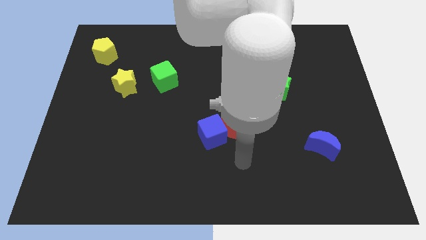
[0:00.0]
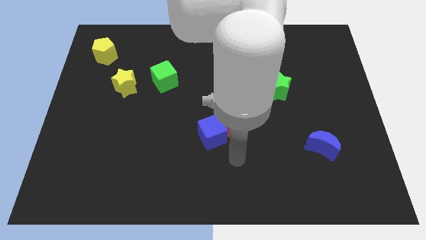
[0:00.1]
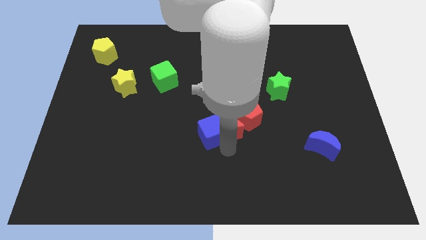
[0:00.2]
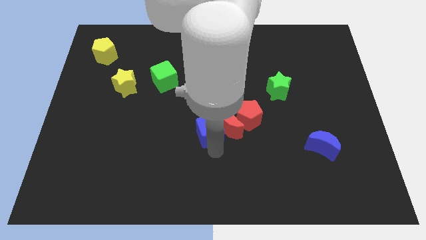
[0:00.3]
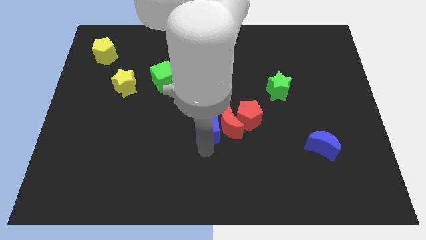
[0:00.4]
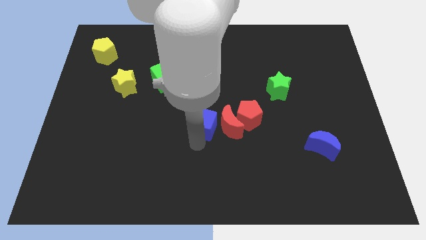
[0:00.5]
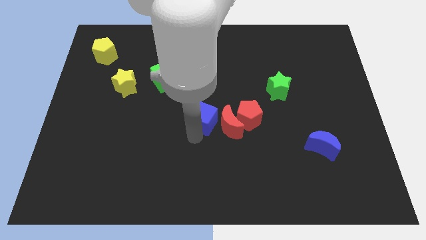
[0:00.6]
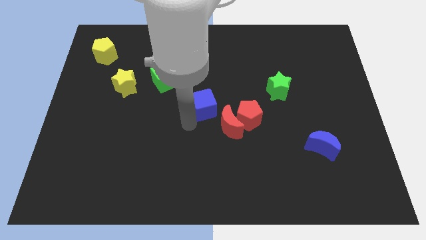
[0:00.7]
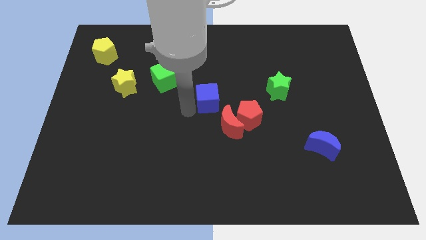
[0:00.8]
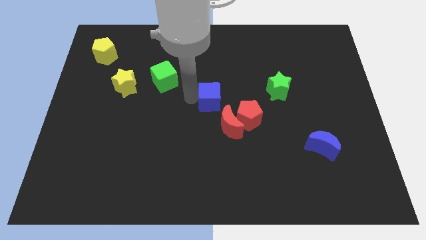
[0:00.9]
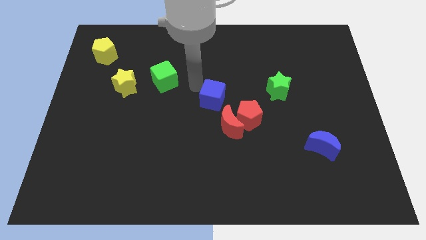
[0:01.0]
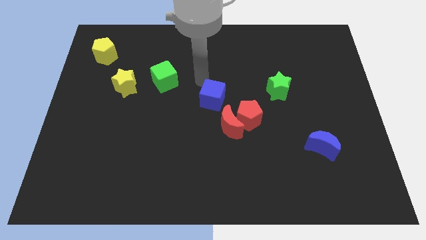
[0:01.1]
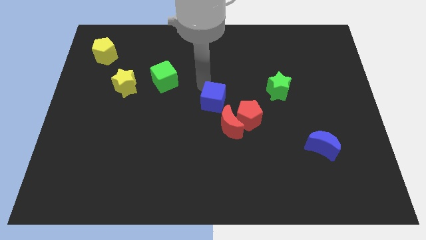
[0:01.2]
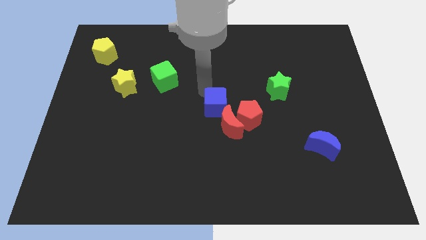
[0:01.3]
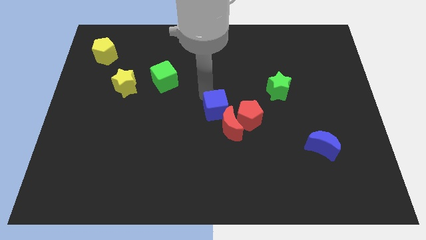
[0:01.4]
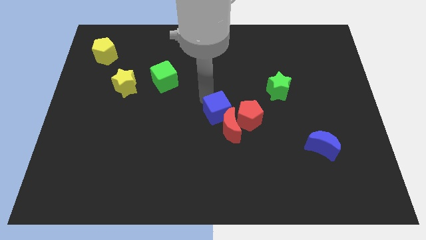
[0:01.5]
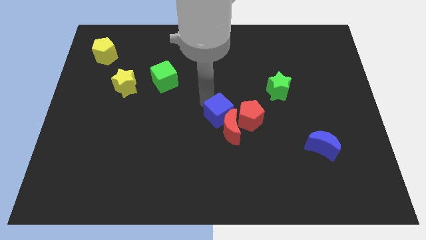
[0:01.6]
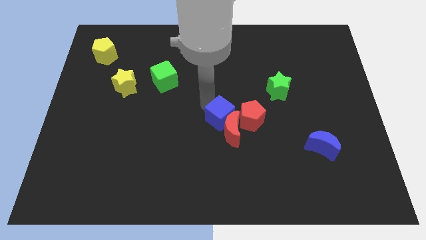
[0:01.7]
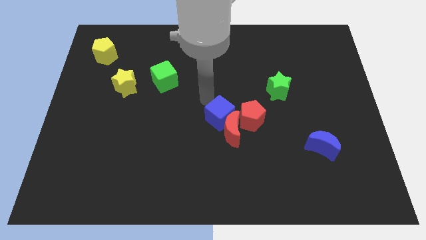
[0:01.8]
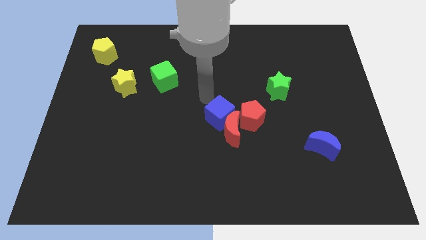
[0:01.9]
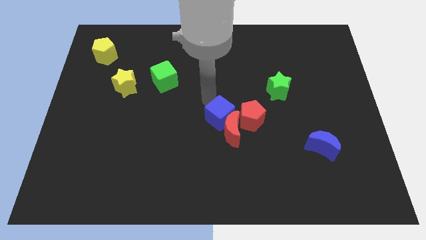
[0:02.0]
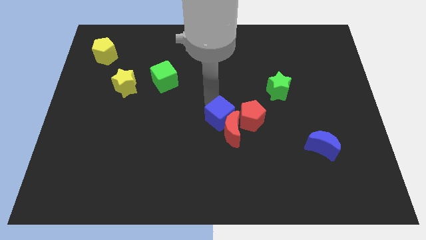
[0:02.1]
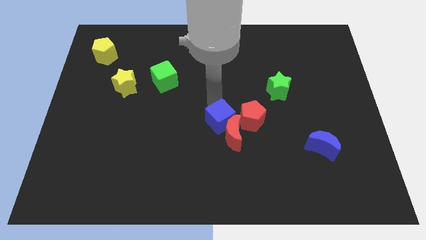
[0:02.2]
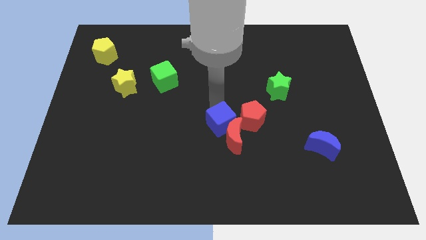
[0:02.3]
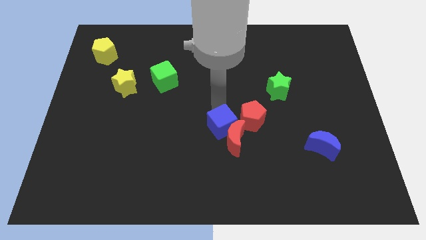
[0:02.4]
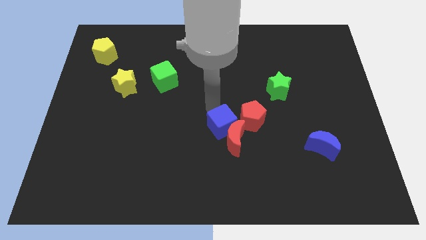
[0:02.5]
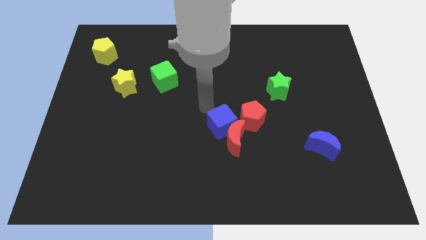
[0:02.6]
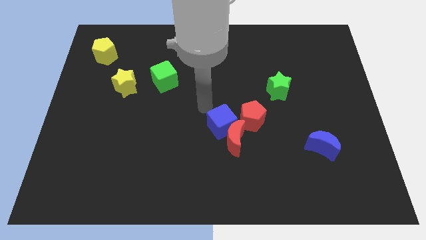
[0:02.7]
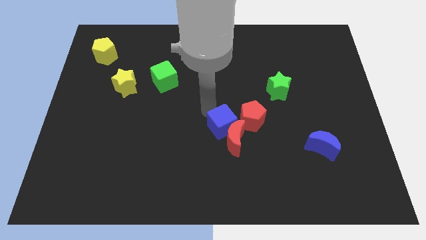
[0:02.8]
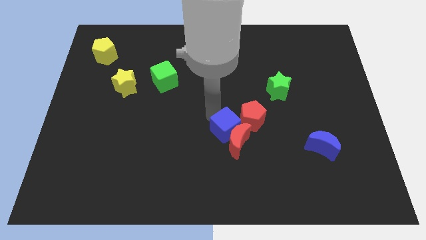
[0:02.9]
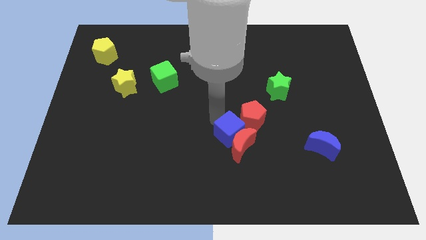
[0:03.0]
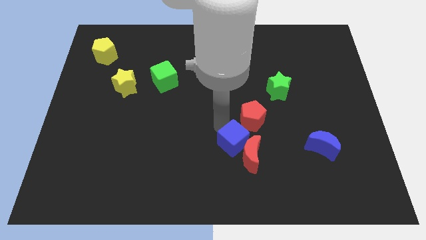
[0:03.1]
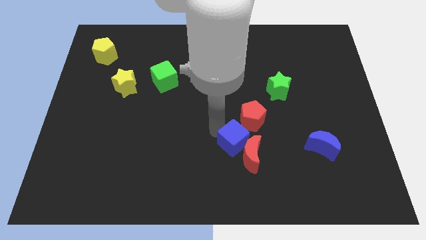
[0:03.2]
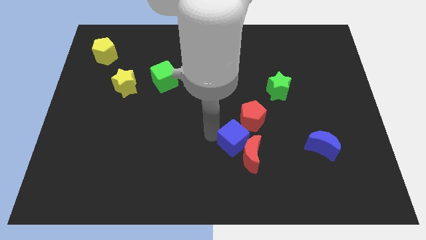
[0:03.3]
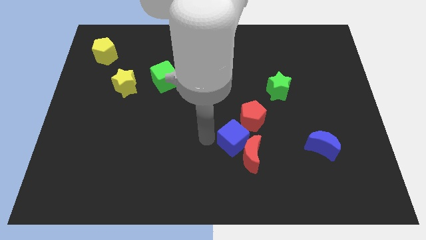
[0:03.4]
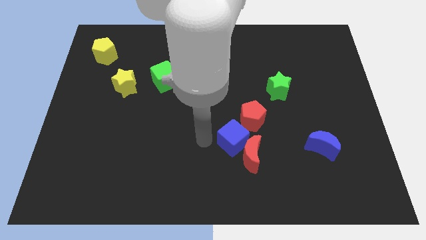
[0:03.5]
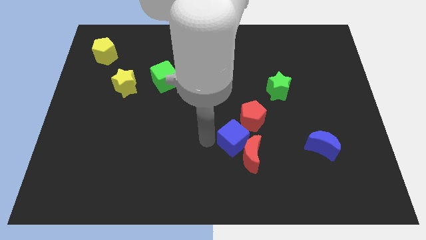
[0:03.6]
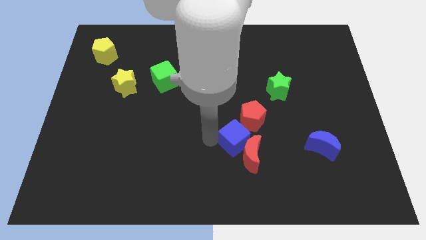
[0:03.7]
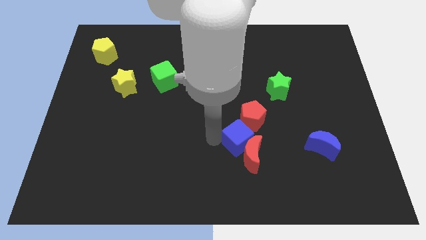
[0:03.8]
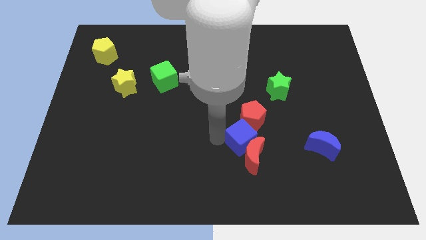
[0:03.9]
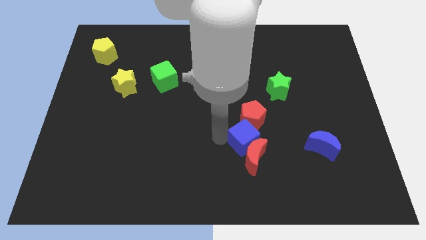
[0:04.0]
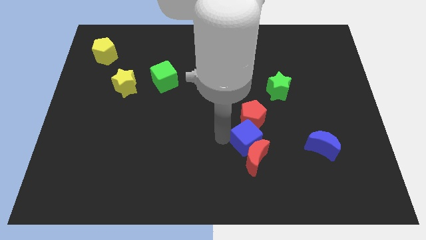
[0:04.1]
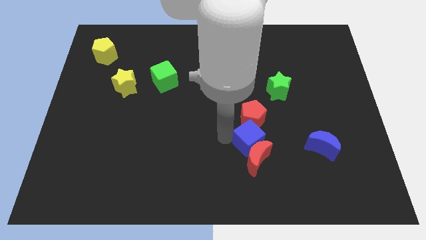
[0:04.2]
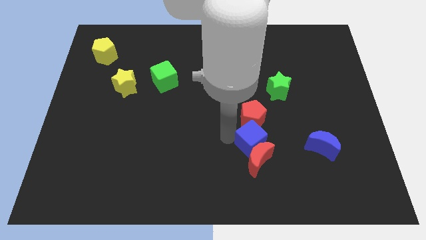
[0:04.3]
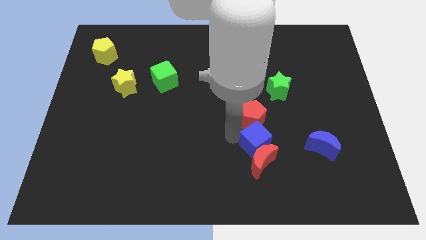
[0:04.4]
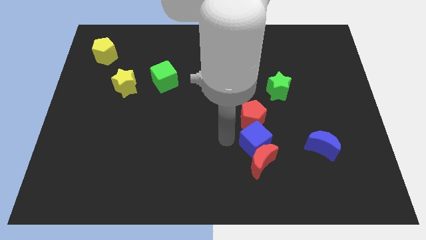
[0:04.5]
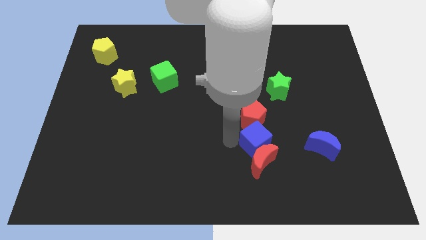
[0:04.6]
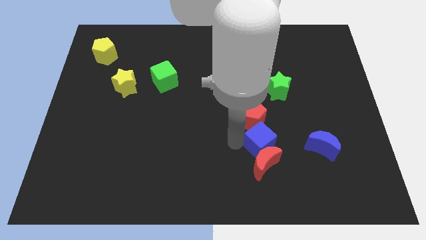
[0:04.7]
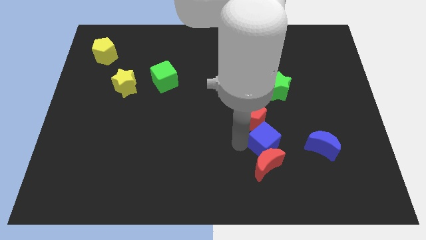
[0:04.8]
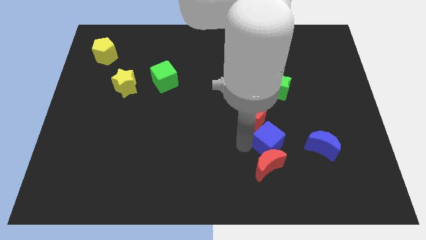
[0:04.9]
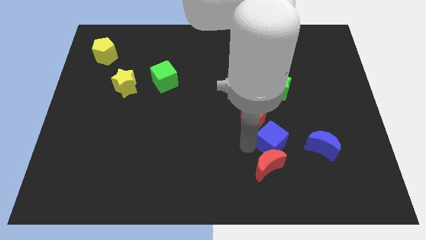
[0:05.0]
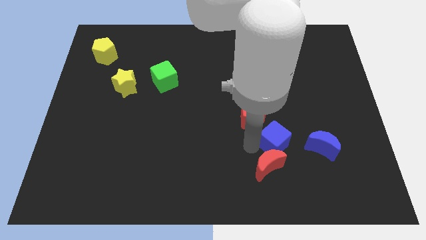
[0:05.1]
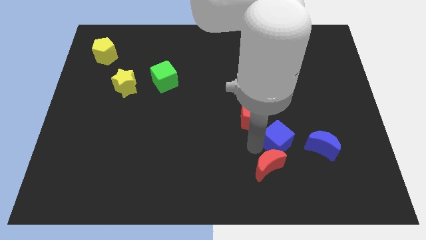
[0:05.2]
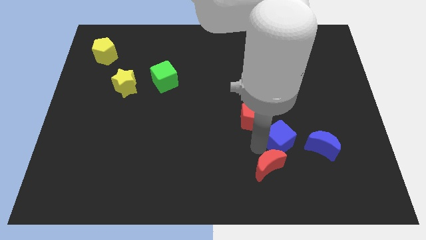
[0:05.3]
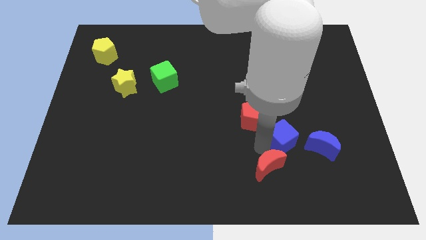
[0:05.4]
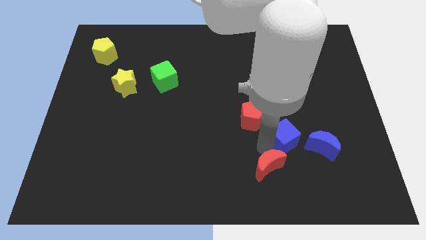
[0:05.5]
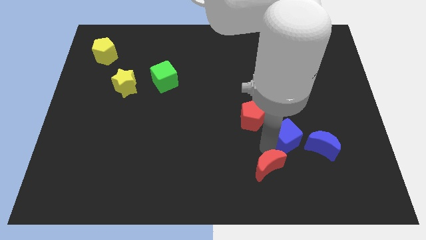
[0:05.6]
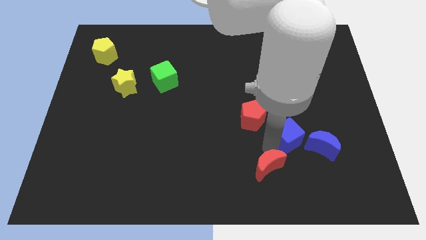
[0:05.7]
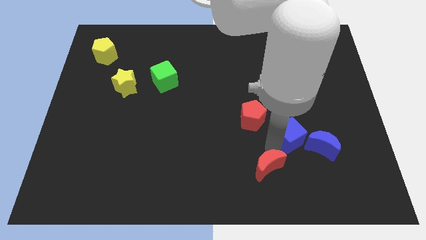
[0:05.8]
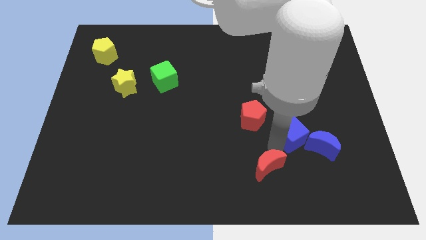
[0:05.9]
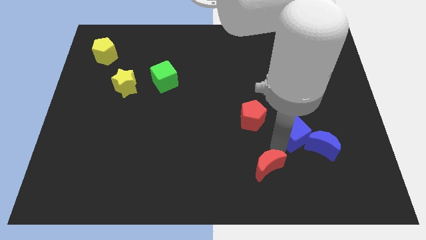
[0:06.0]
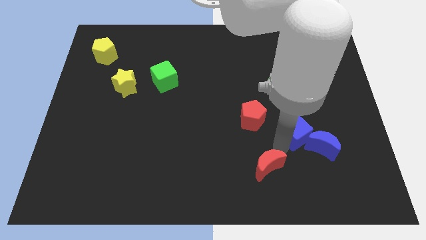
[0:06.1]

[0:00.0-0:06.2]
slide the blue cube towards the blue moon

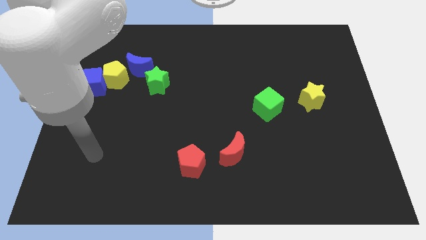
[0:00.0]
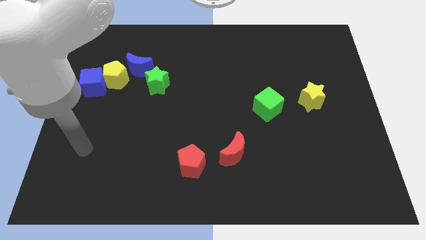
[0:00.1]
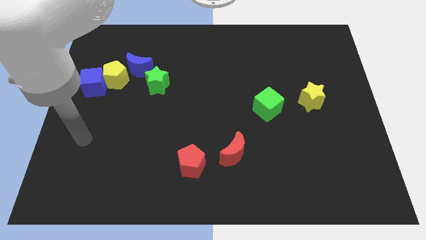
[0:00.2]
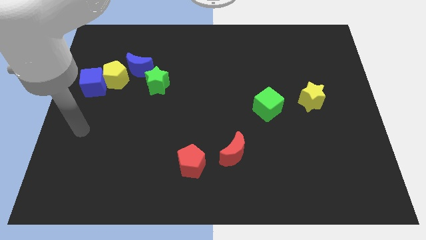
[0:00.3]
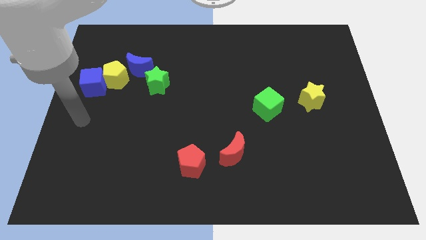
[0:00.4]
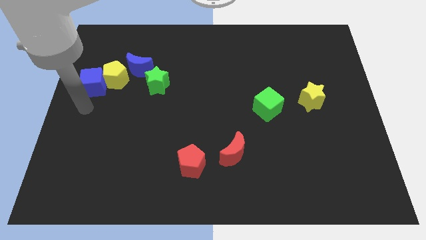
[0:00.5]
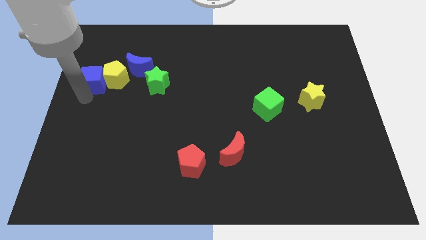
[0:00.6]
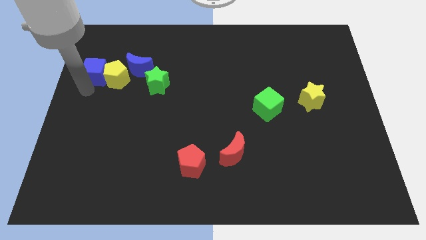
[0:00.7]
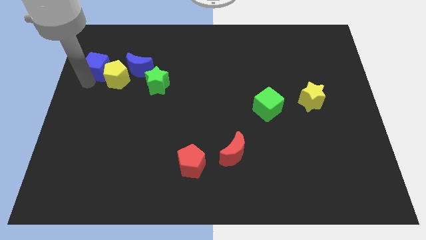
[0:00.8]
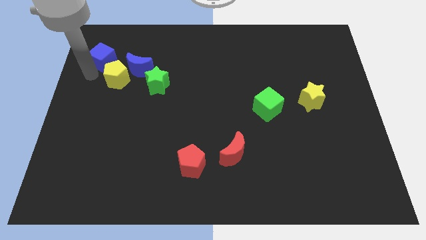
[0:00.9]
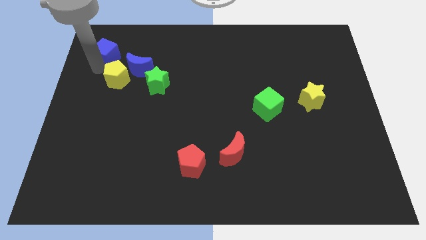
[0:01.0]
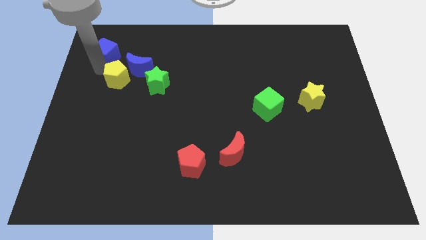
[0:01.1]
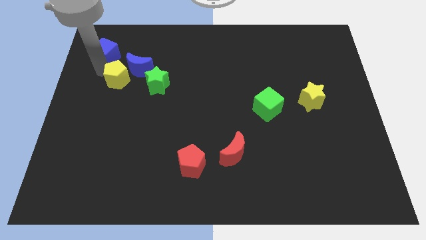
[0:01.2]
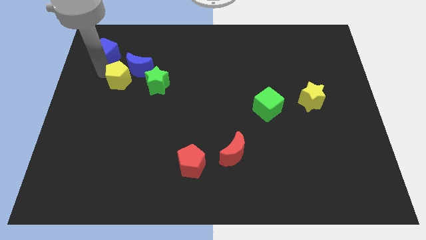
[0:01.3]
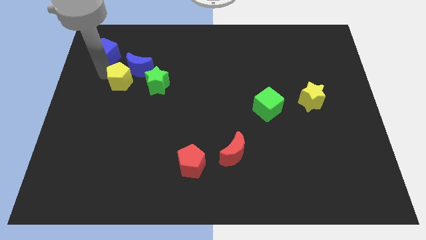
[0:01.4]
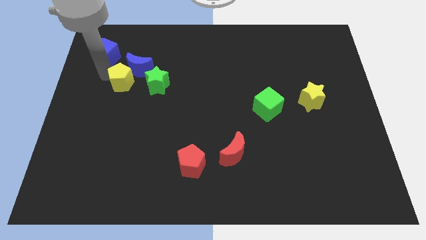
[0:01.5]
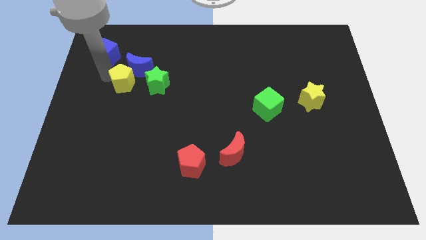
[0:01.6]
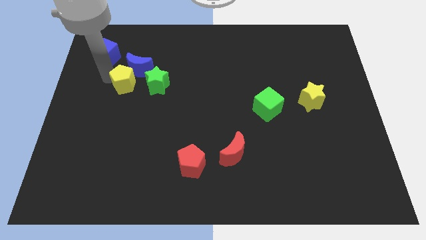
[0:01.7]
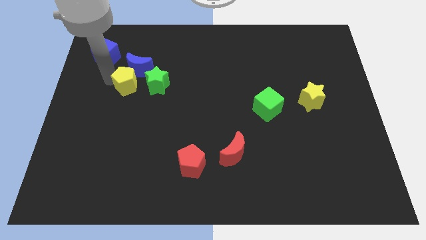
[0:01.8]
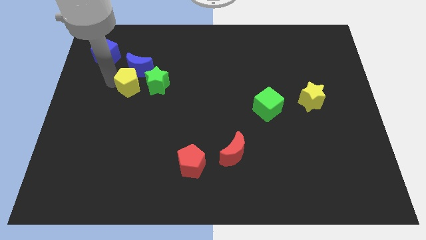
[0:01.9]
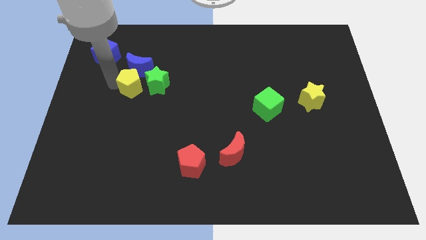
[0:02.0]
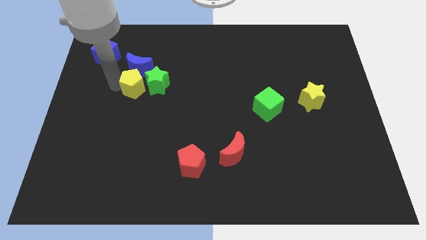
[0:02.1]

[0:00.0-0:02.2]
move the yellow pentagon next to the green star
